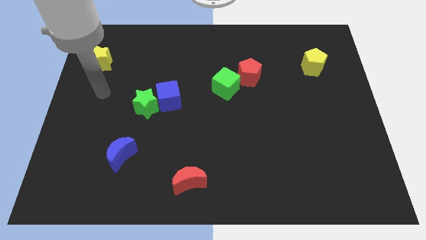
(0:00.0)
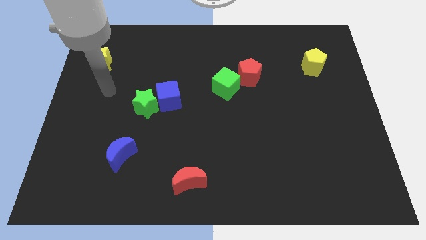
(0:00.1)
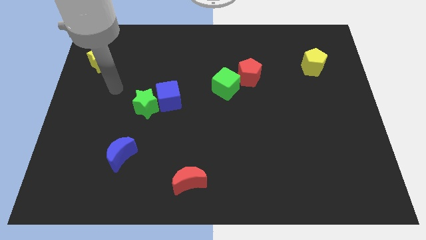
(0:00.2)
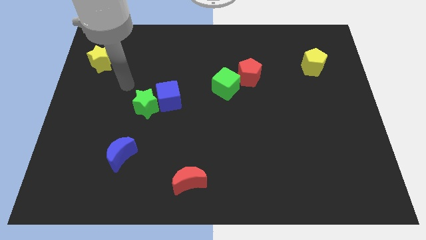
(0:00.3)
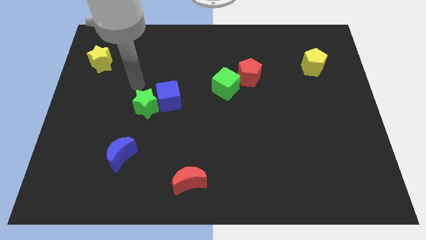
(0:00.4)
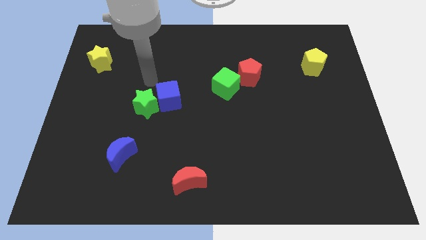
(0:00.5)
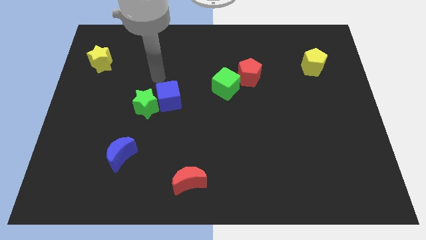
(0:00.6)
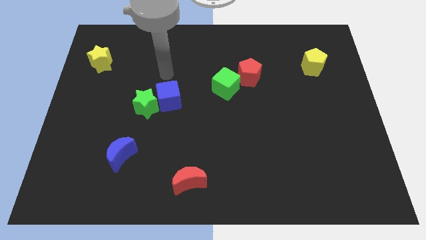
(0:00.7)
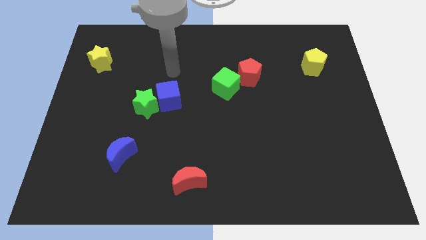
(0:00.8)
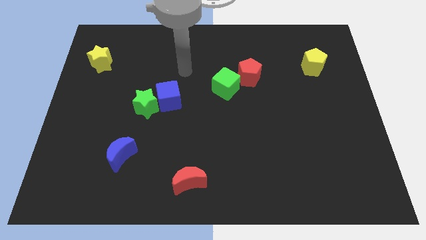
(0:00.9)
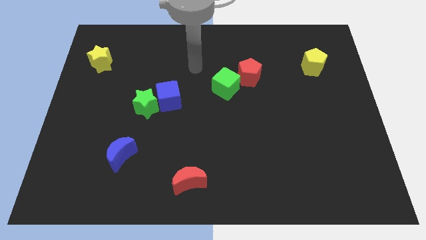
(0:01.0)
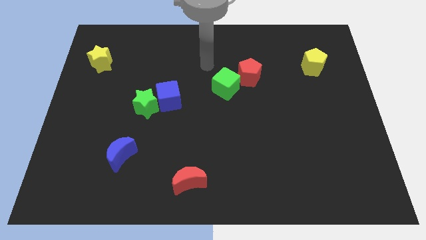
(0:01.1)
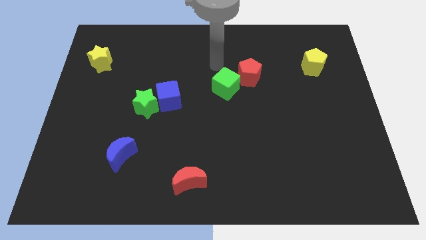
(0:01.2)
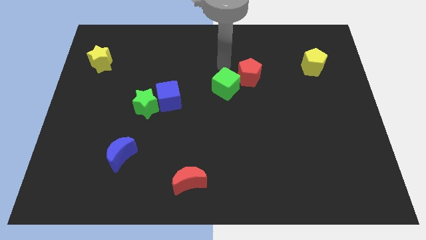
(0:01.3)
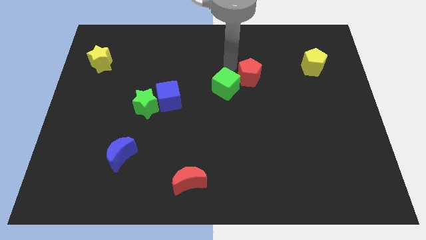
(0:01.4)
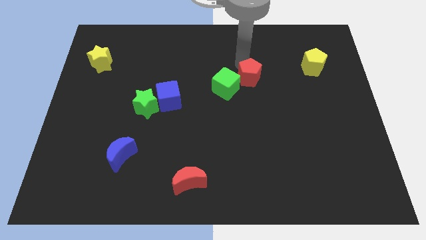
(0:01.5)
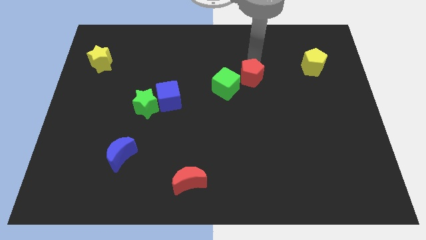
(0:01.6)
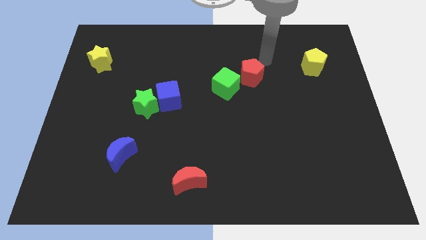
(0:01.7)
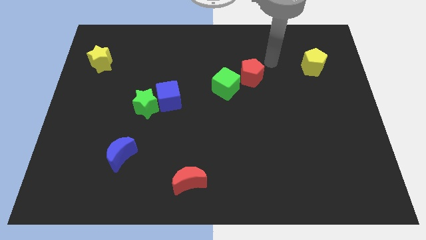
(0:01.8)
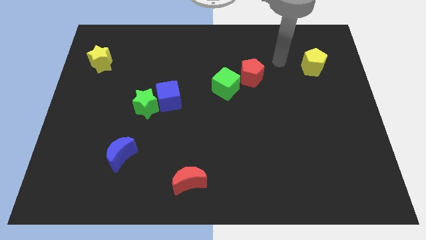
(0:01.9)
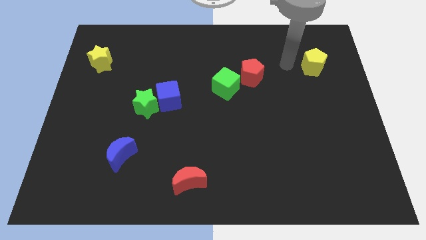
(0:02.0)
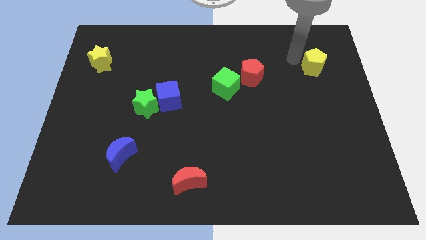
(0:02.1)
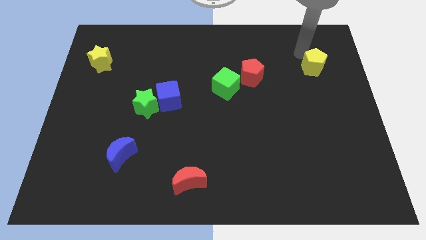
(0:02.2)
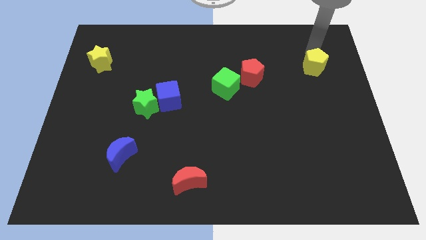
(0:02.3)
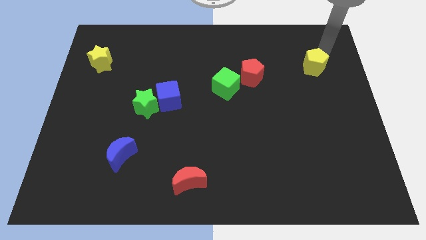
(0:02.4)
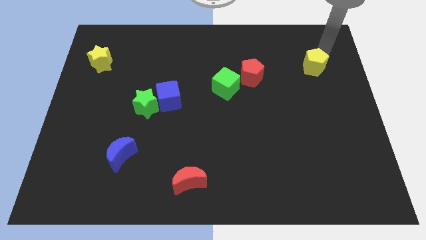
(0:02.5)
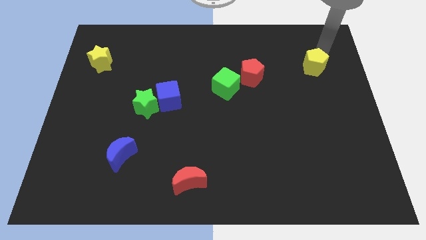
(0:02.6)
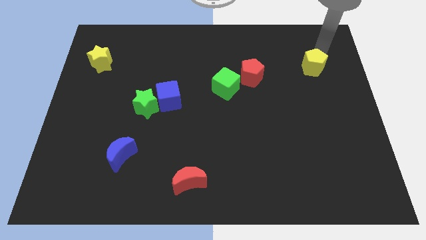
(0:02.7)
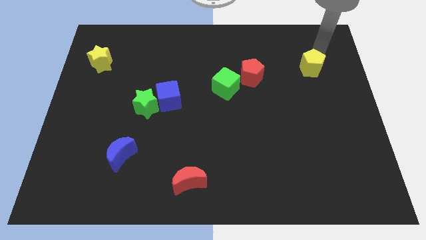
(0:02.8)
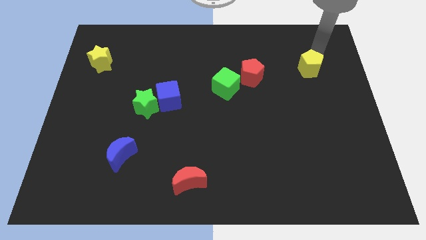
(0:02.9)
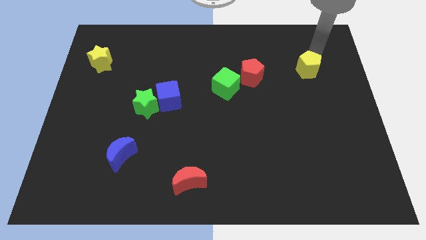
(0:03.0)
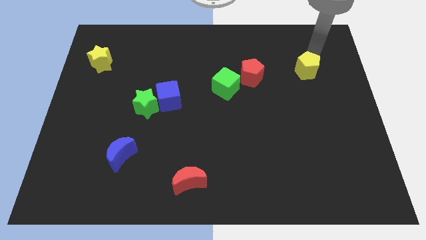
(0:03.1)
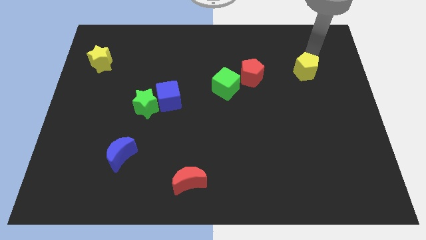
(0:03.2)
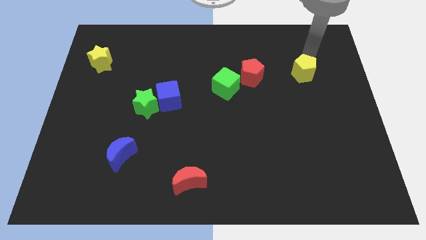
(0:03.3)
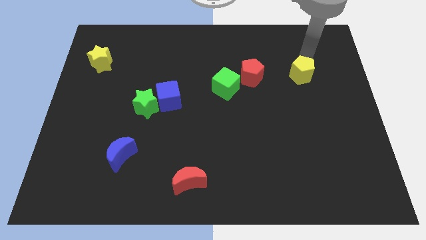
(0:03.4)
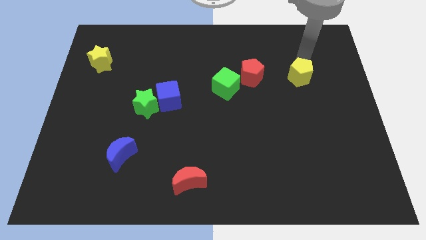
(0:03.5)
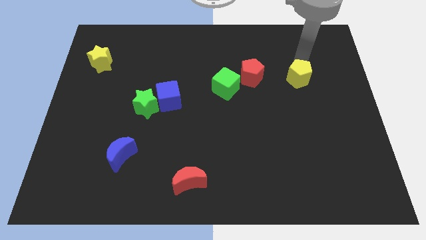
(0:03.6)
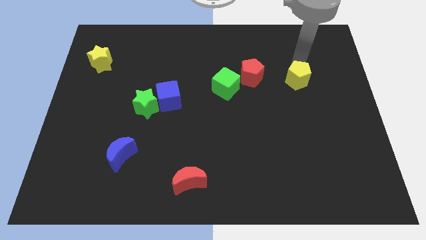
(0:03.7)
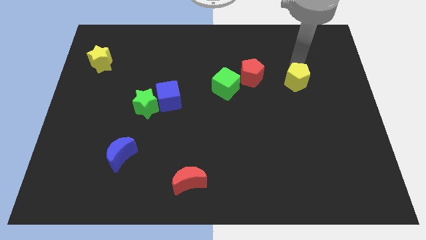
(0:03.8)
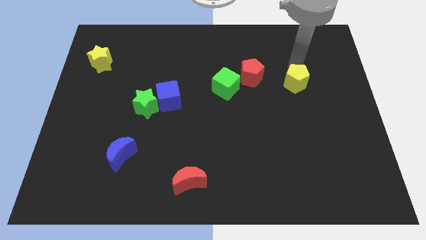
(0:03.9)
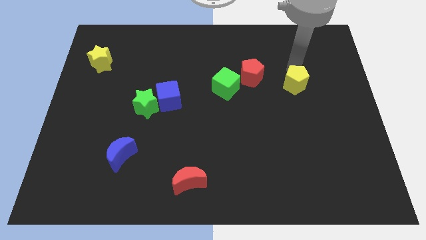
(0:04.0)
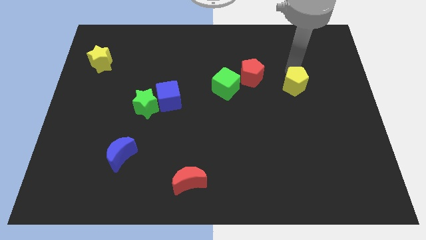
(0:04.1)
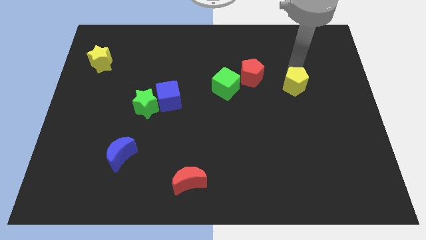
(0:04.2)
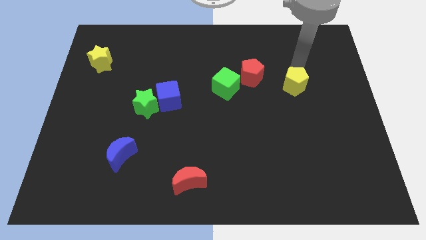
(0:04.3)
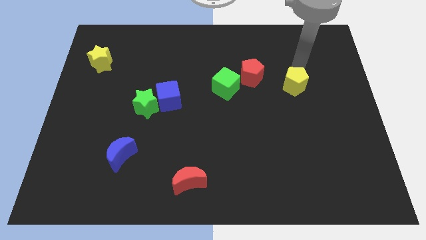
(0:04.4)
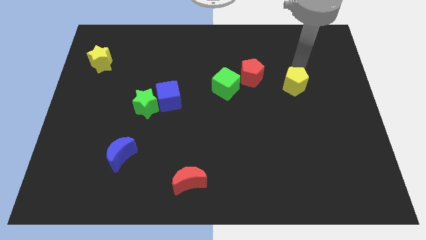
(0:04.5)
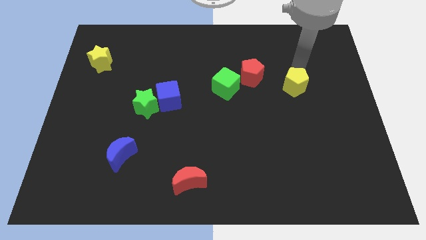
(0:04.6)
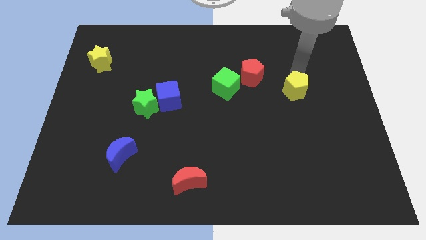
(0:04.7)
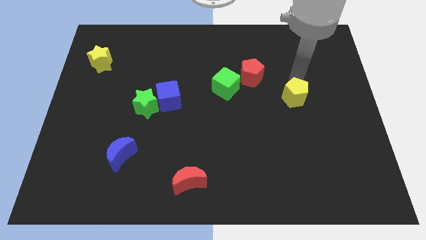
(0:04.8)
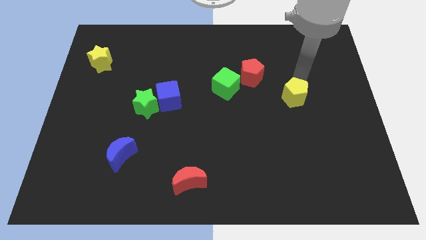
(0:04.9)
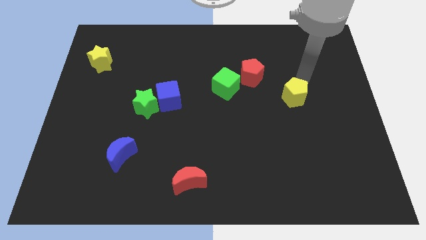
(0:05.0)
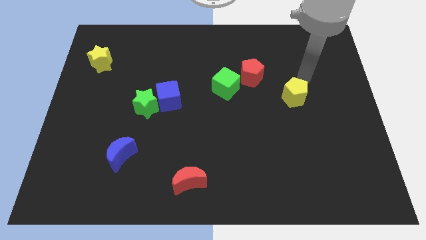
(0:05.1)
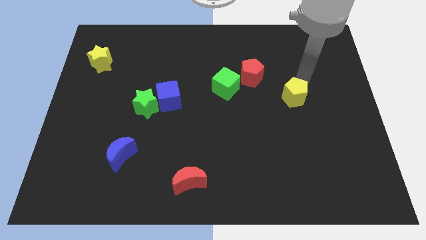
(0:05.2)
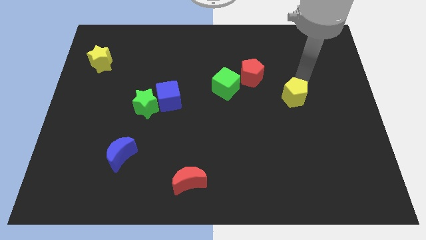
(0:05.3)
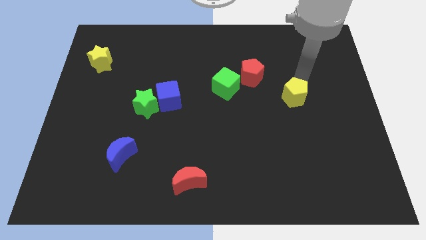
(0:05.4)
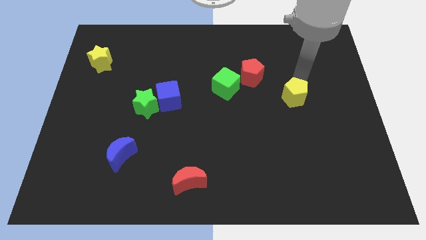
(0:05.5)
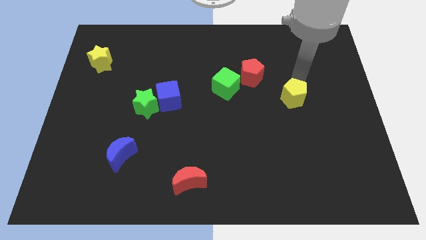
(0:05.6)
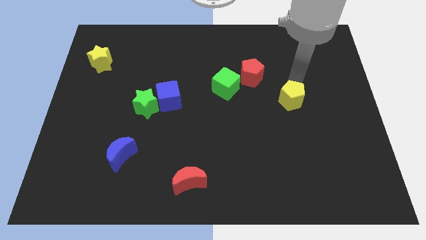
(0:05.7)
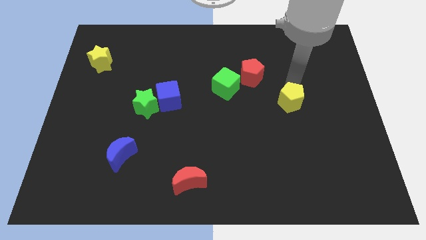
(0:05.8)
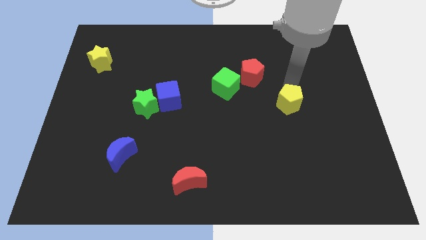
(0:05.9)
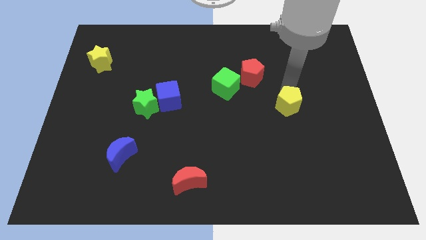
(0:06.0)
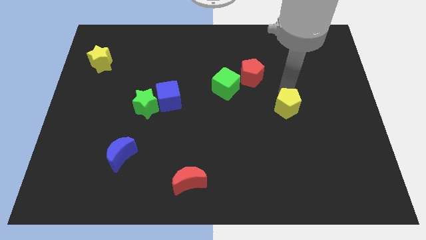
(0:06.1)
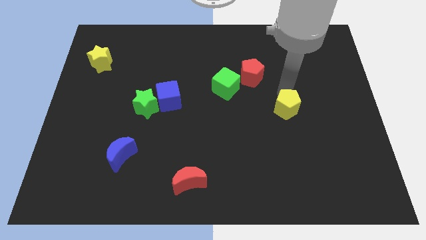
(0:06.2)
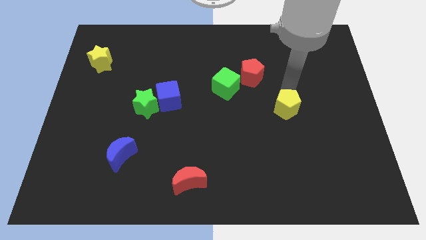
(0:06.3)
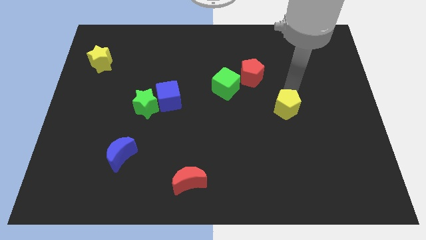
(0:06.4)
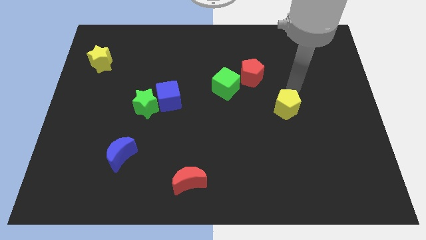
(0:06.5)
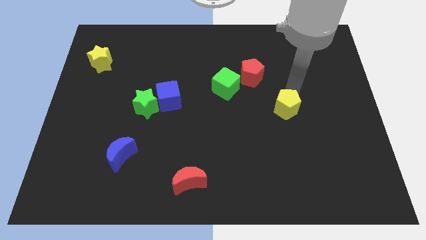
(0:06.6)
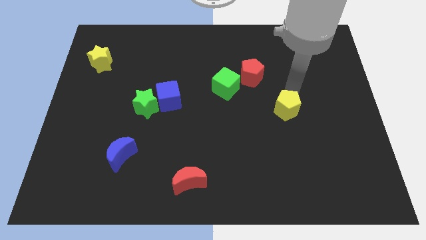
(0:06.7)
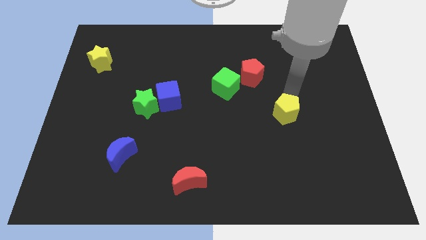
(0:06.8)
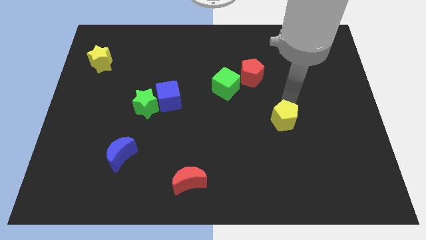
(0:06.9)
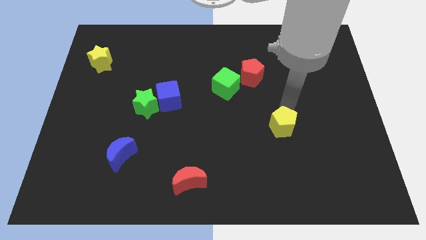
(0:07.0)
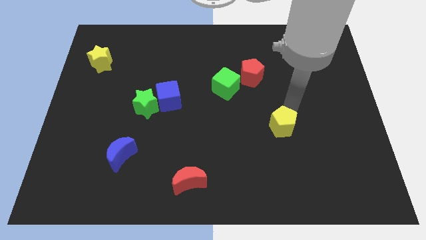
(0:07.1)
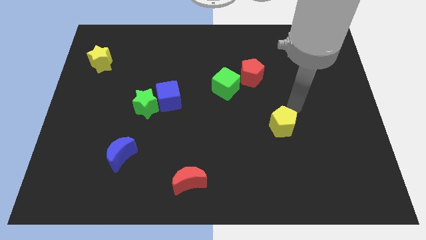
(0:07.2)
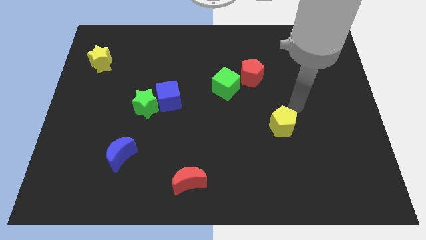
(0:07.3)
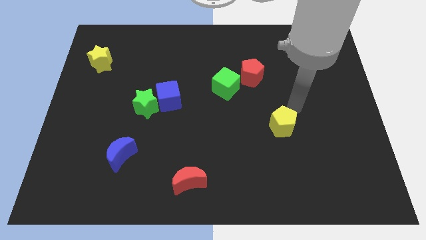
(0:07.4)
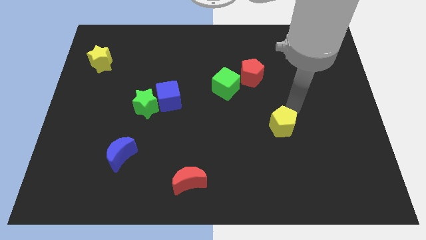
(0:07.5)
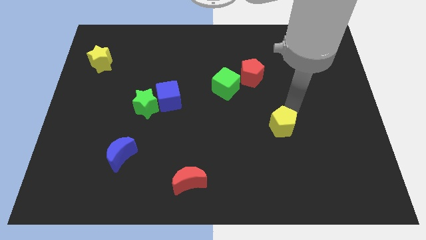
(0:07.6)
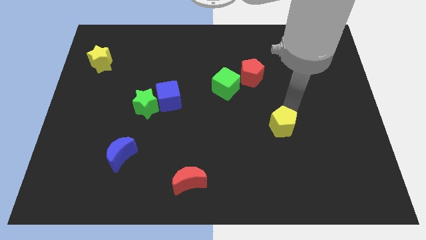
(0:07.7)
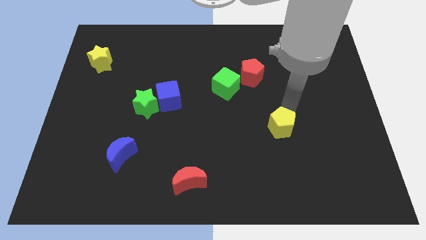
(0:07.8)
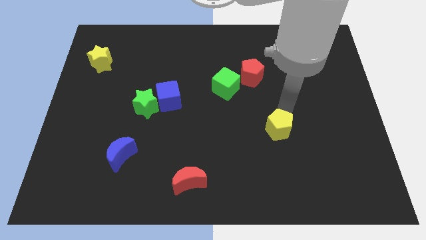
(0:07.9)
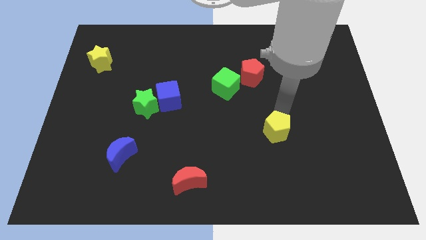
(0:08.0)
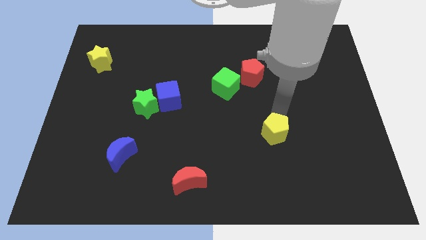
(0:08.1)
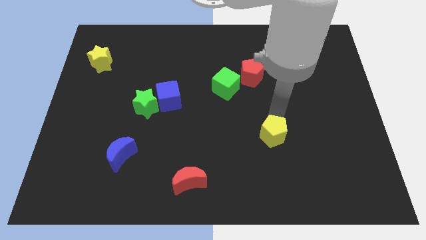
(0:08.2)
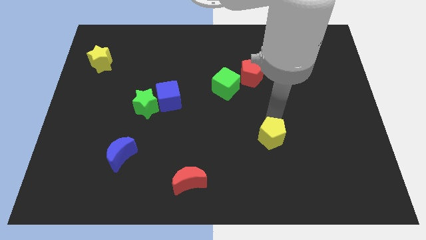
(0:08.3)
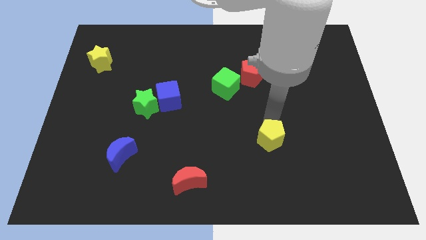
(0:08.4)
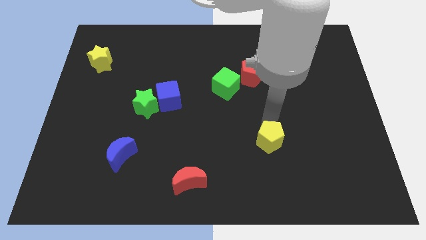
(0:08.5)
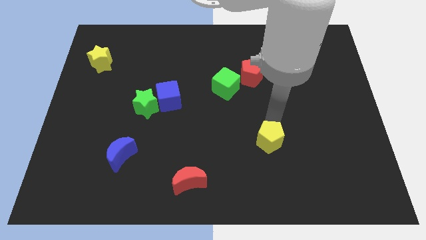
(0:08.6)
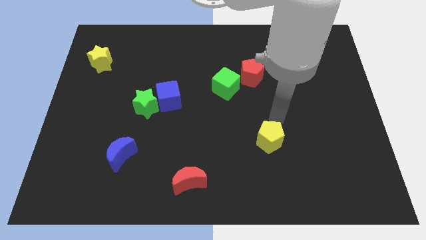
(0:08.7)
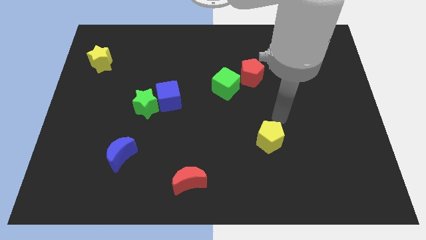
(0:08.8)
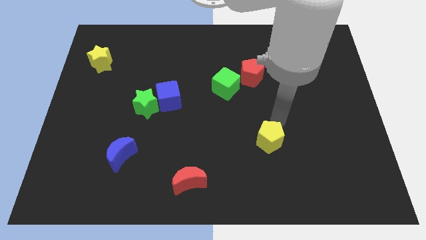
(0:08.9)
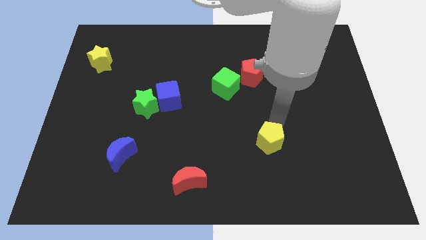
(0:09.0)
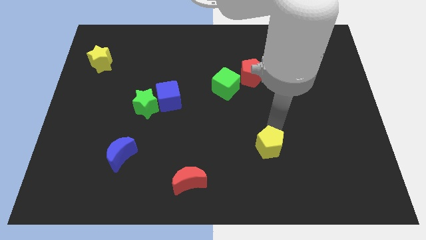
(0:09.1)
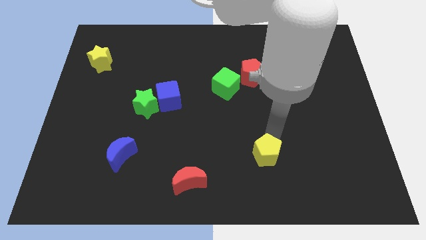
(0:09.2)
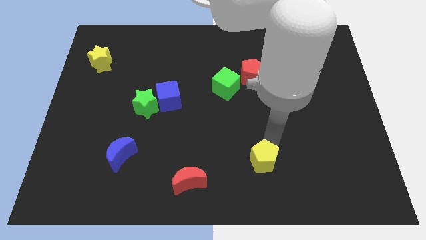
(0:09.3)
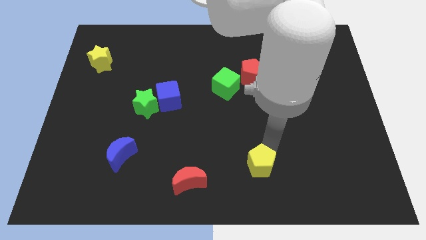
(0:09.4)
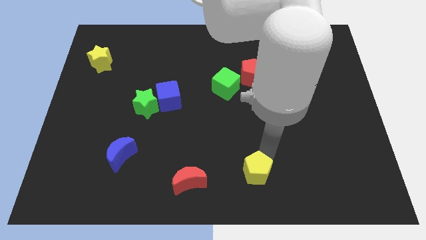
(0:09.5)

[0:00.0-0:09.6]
slide the yellow pentagon to the bottom side
